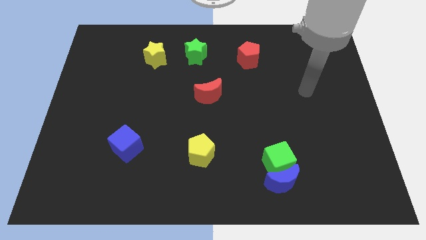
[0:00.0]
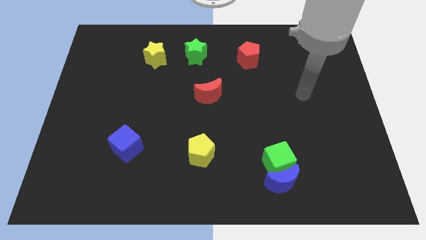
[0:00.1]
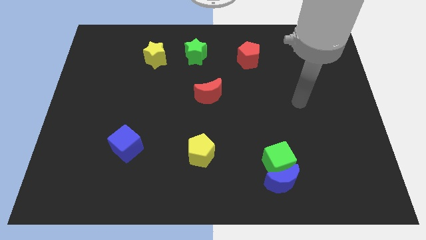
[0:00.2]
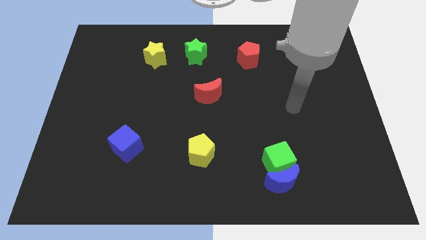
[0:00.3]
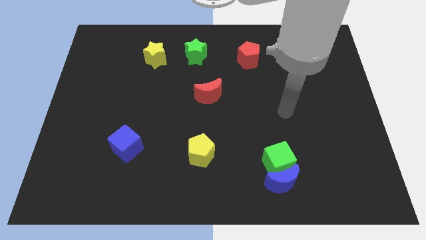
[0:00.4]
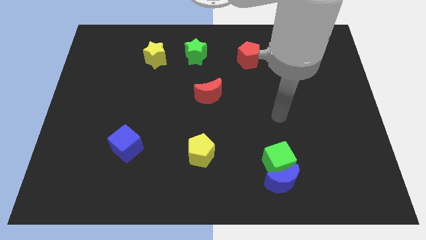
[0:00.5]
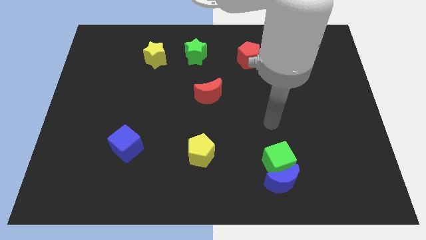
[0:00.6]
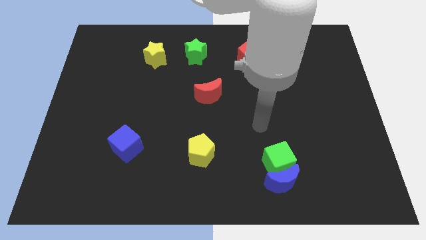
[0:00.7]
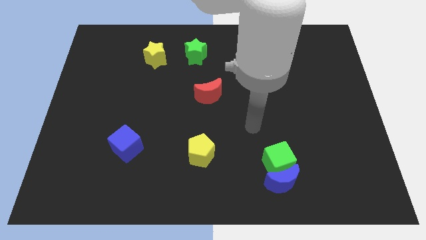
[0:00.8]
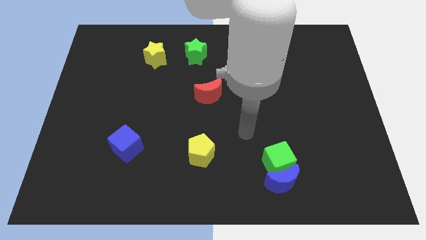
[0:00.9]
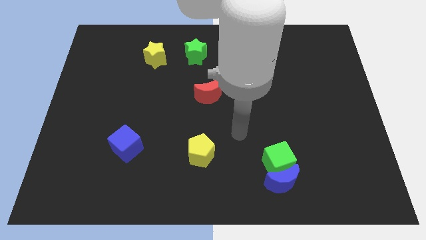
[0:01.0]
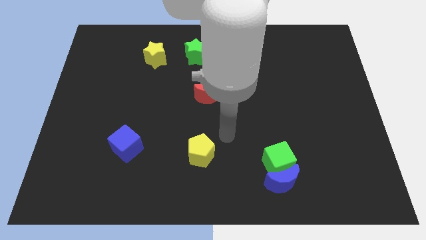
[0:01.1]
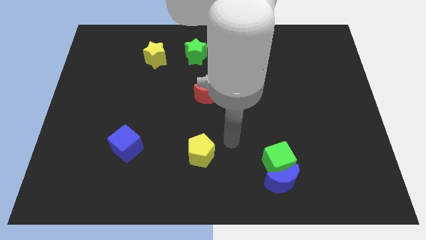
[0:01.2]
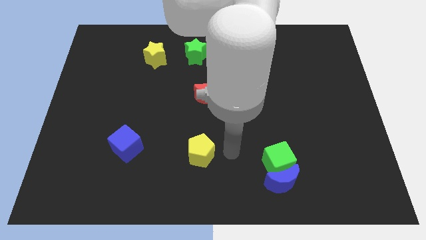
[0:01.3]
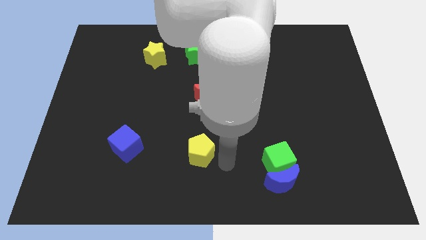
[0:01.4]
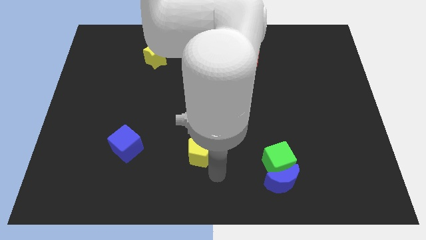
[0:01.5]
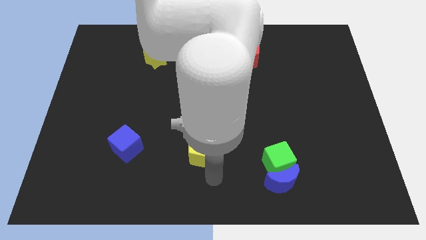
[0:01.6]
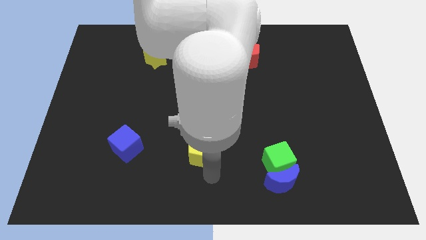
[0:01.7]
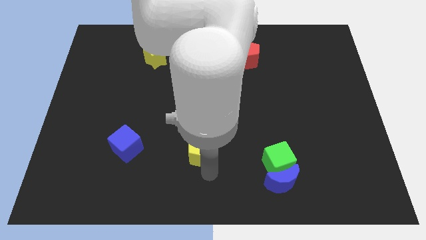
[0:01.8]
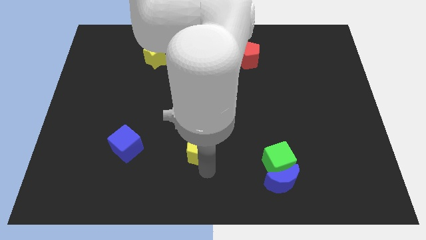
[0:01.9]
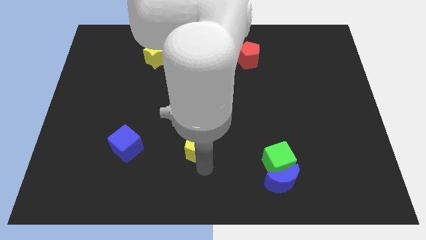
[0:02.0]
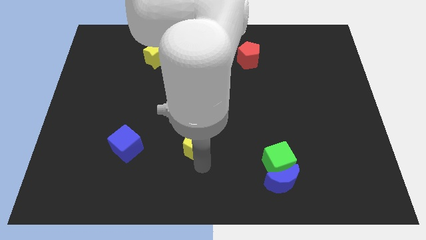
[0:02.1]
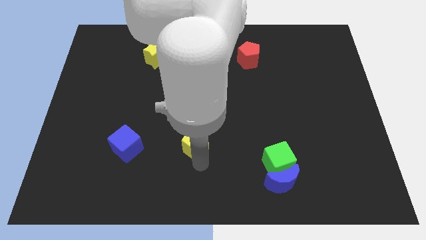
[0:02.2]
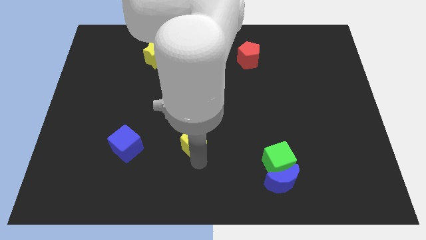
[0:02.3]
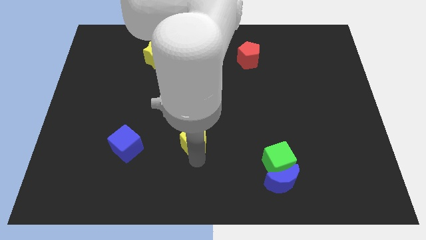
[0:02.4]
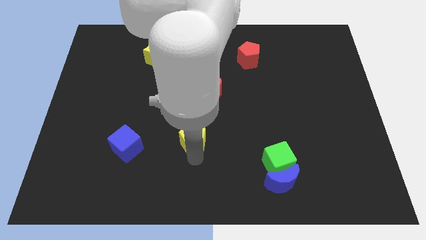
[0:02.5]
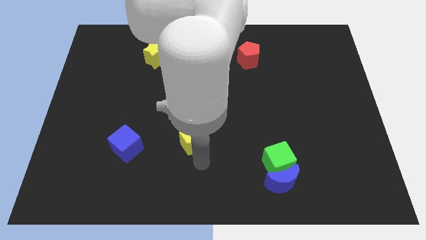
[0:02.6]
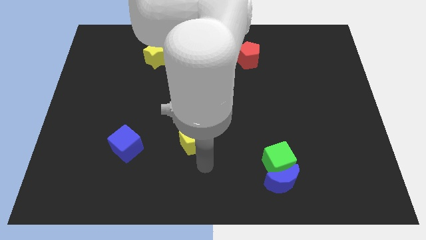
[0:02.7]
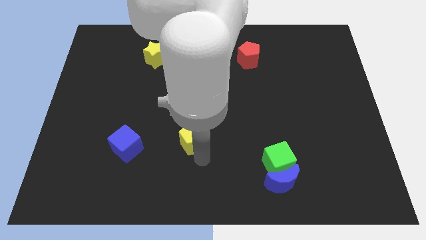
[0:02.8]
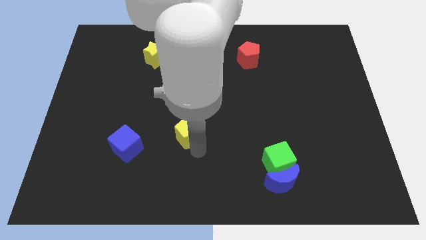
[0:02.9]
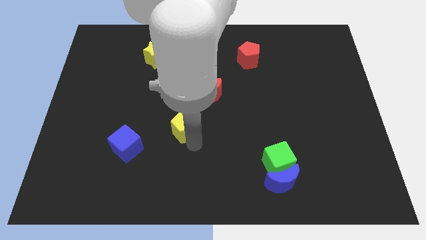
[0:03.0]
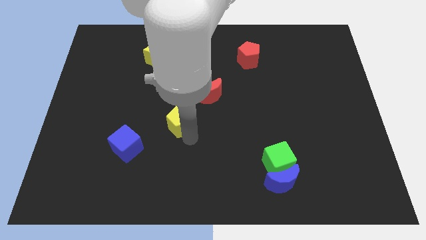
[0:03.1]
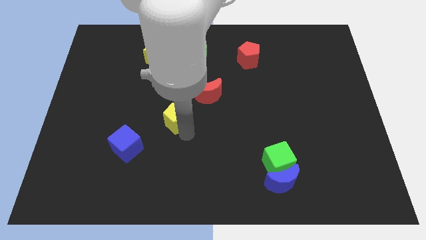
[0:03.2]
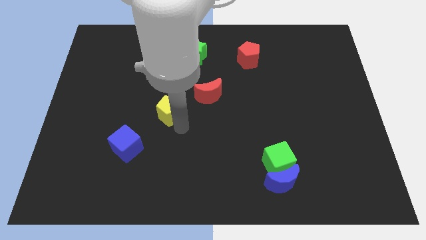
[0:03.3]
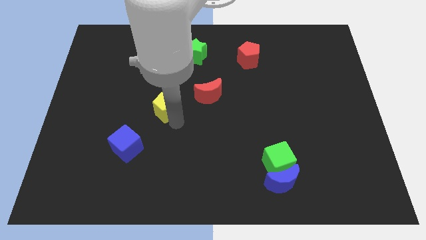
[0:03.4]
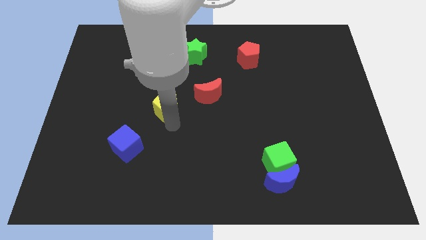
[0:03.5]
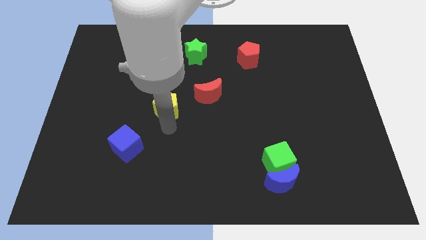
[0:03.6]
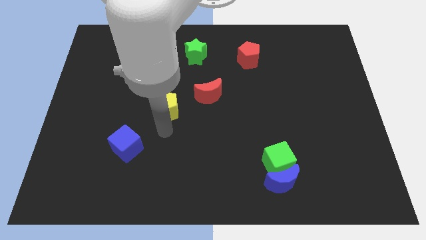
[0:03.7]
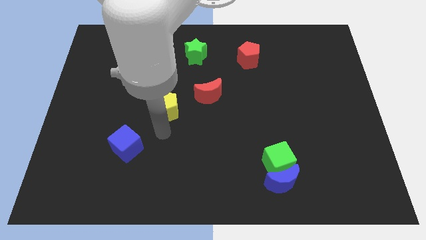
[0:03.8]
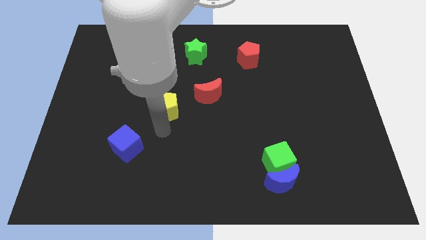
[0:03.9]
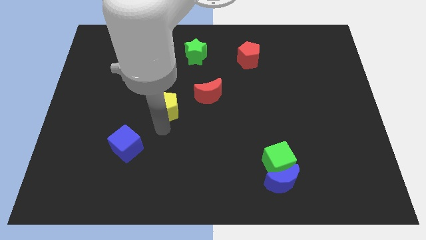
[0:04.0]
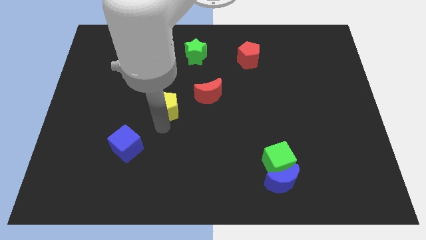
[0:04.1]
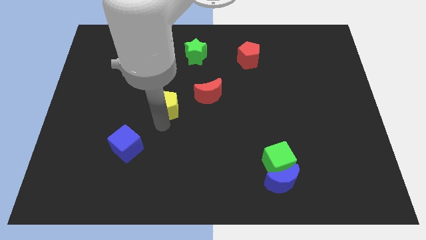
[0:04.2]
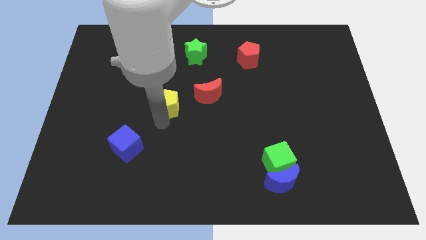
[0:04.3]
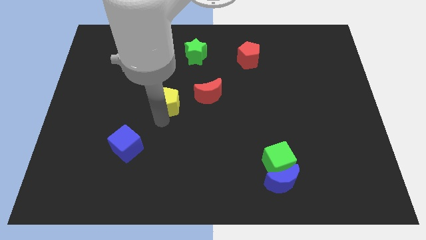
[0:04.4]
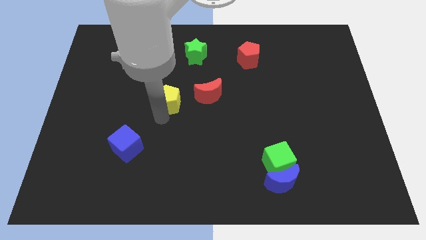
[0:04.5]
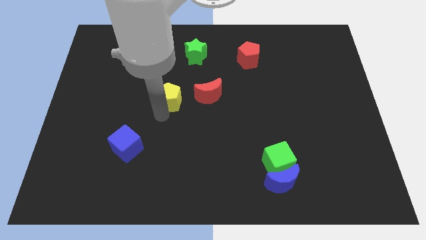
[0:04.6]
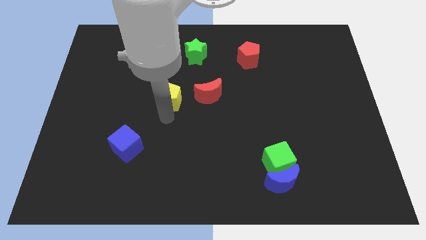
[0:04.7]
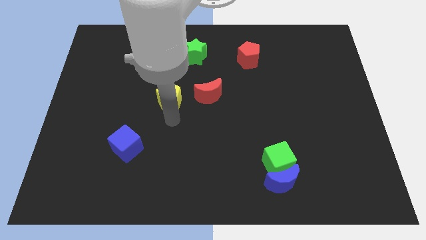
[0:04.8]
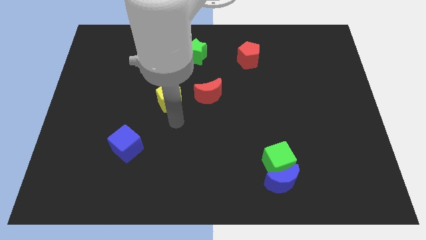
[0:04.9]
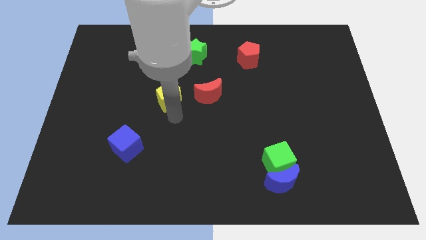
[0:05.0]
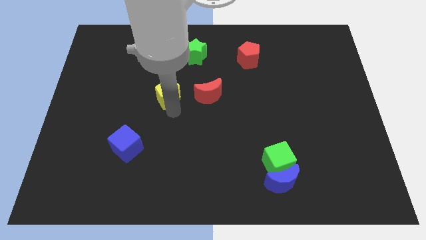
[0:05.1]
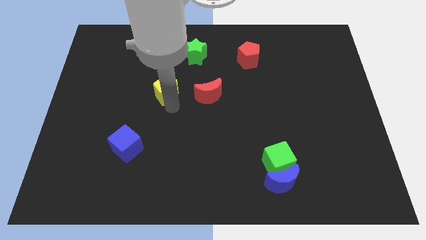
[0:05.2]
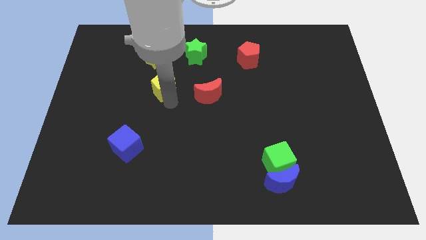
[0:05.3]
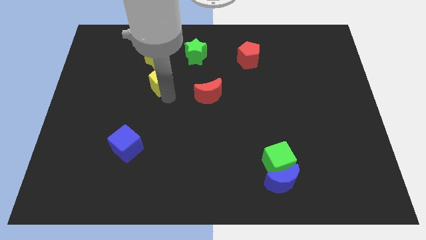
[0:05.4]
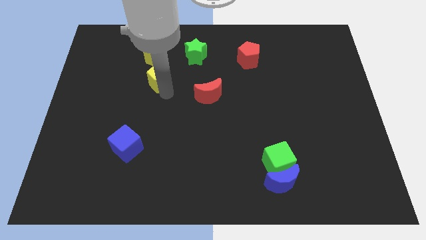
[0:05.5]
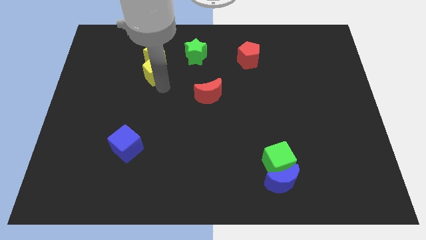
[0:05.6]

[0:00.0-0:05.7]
move the yellow pentagon next to the yellow star

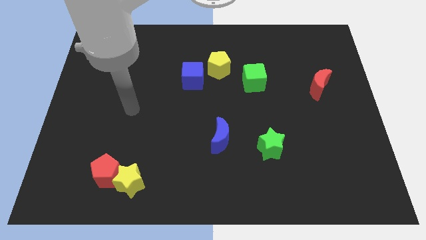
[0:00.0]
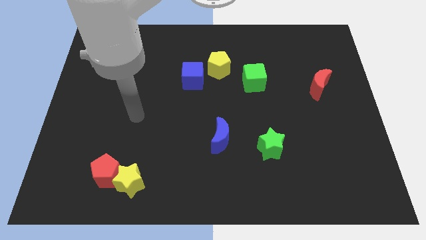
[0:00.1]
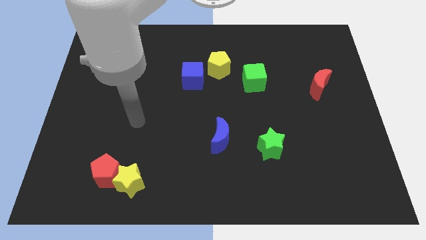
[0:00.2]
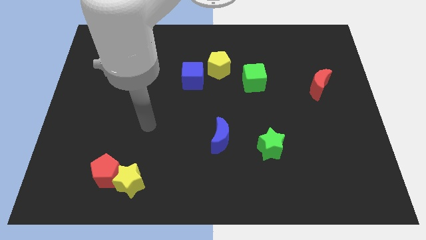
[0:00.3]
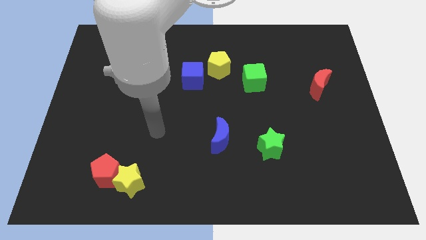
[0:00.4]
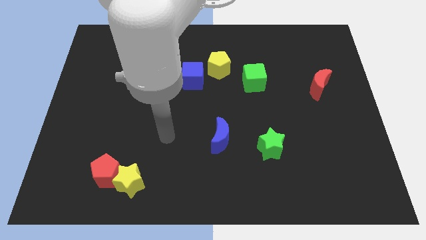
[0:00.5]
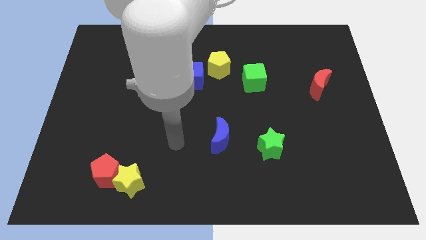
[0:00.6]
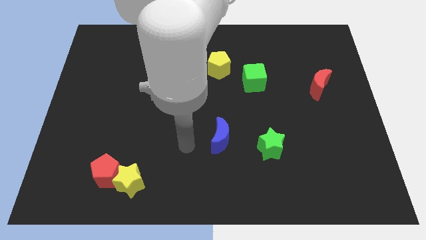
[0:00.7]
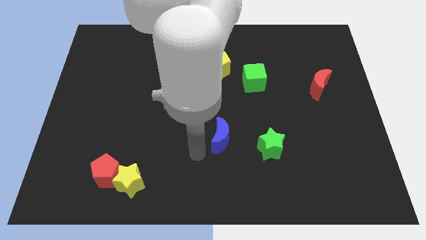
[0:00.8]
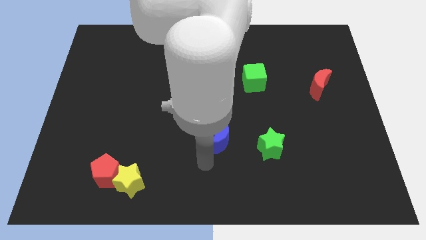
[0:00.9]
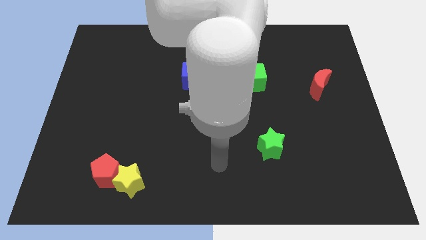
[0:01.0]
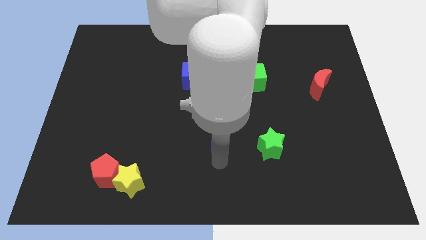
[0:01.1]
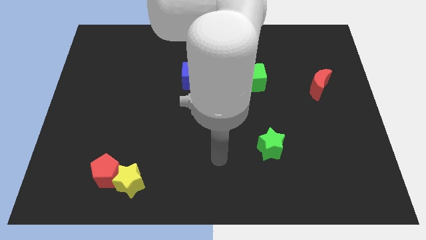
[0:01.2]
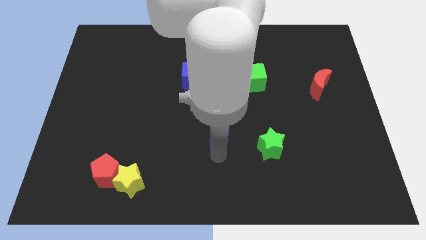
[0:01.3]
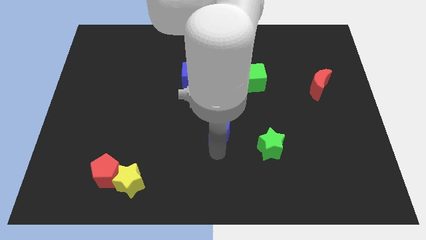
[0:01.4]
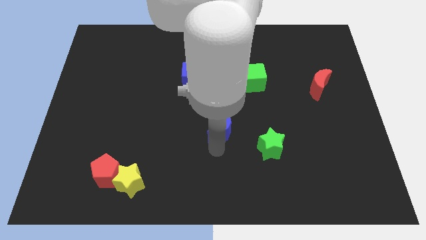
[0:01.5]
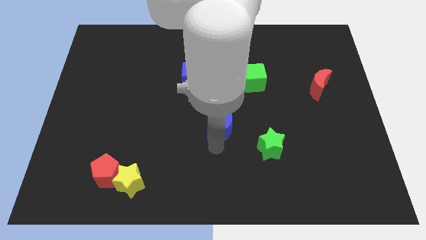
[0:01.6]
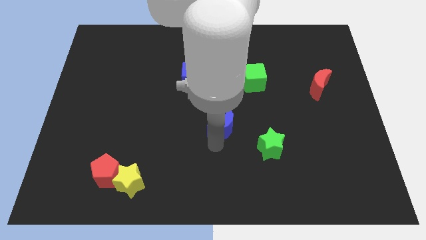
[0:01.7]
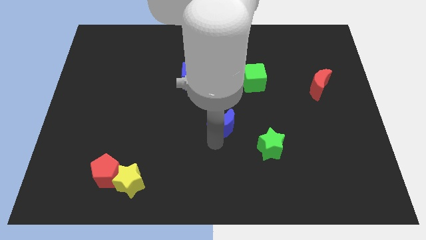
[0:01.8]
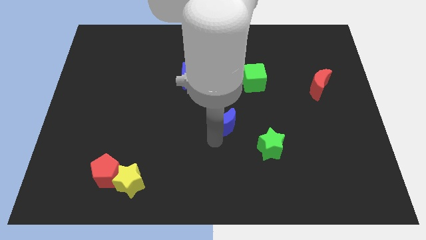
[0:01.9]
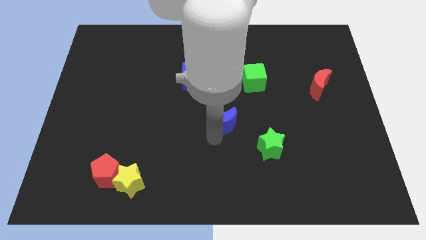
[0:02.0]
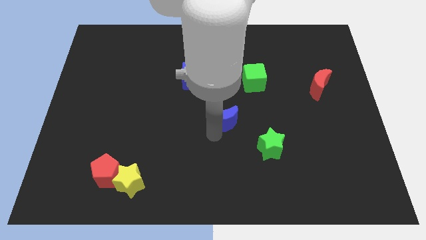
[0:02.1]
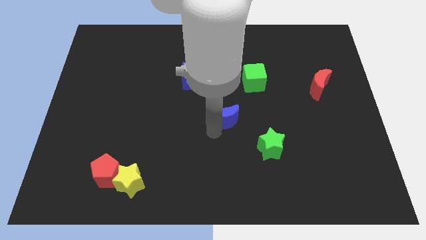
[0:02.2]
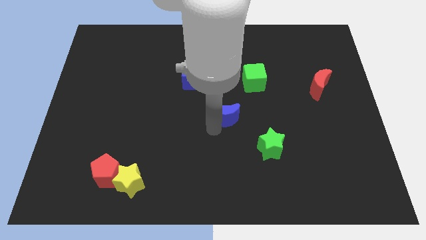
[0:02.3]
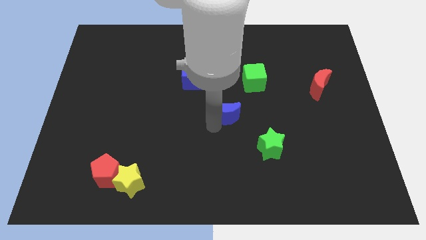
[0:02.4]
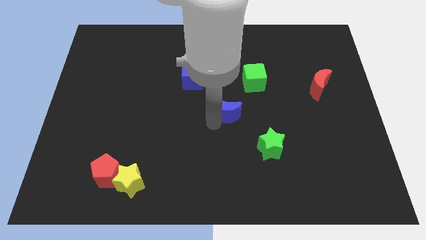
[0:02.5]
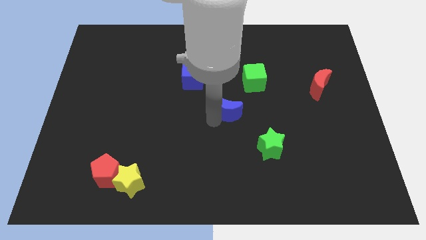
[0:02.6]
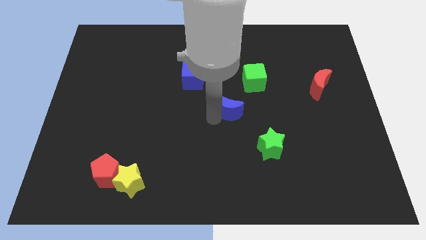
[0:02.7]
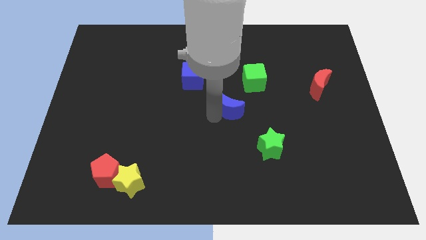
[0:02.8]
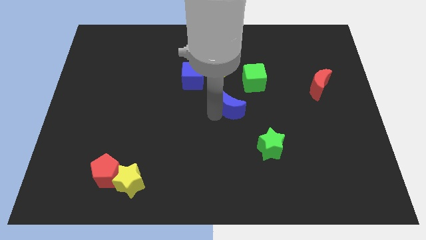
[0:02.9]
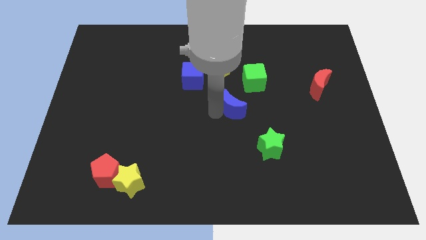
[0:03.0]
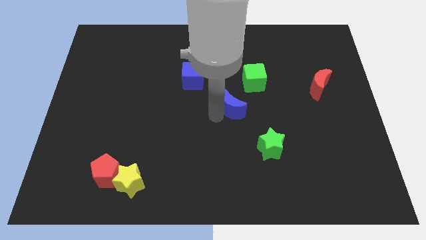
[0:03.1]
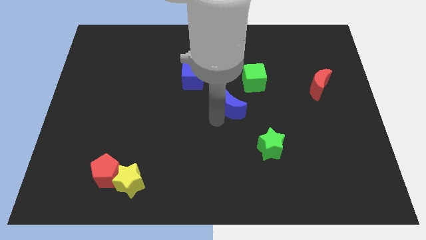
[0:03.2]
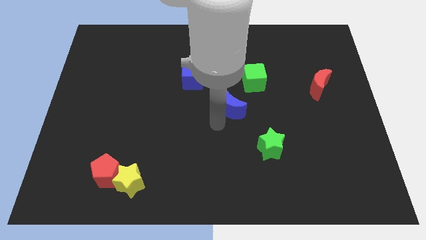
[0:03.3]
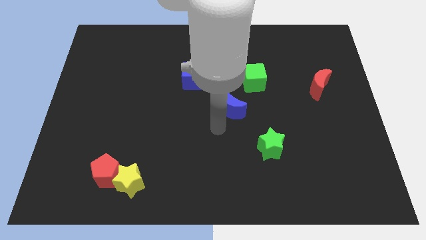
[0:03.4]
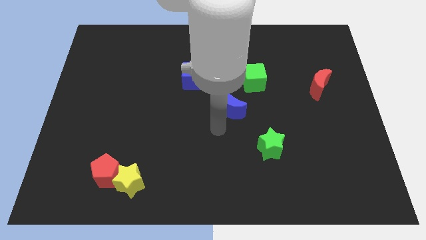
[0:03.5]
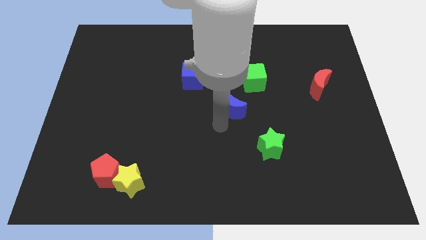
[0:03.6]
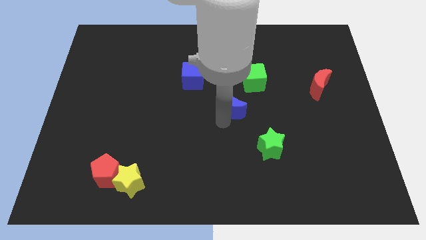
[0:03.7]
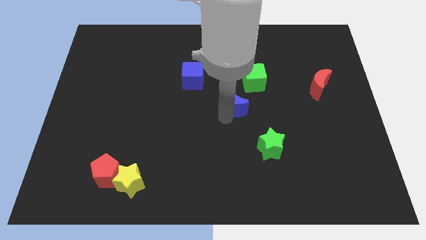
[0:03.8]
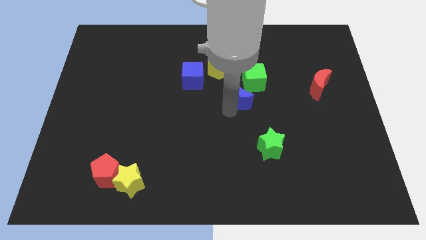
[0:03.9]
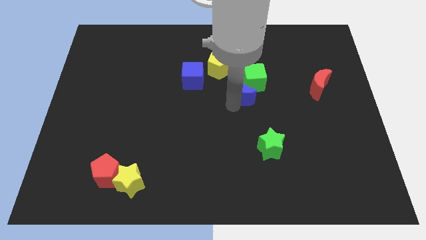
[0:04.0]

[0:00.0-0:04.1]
move the blue moon close to the green cube
